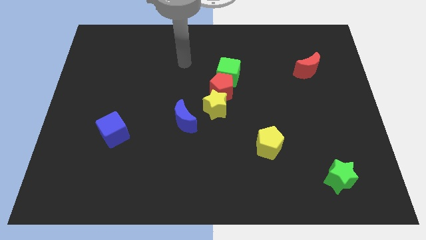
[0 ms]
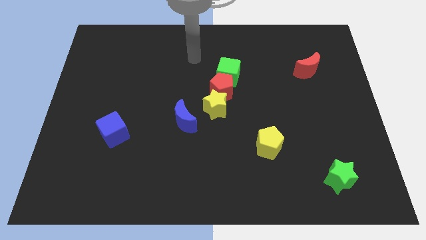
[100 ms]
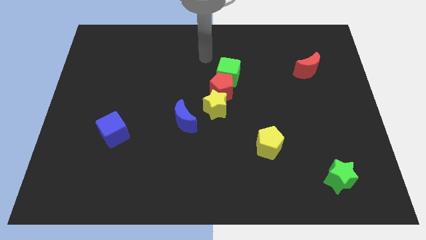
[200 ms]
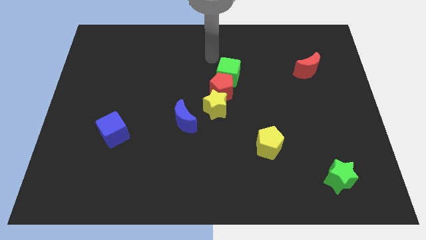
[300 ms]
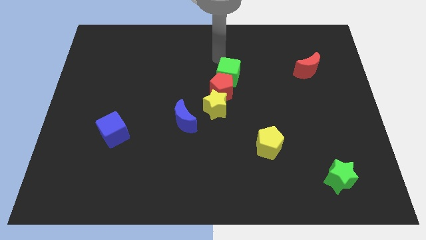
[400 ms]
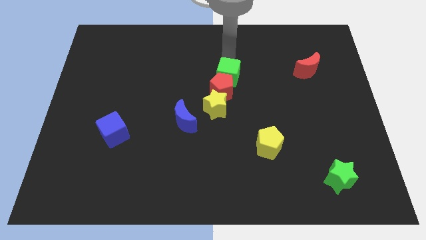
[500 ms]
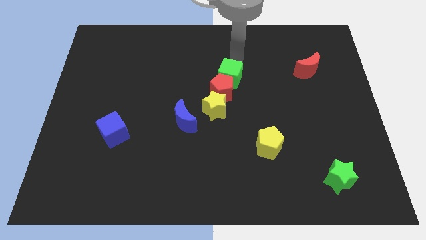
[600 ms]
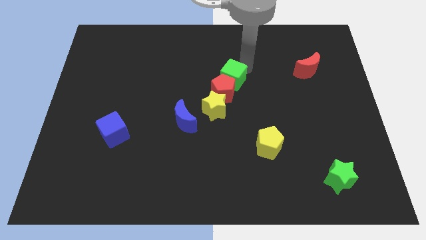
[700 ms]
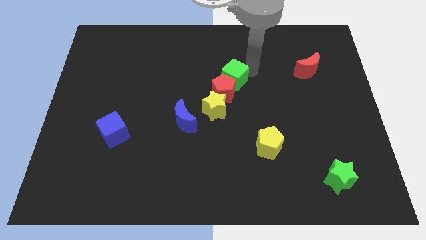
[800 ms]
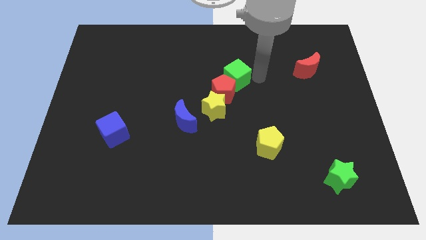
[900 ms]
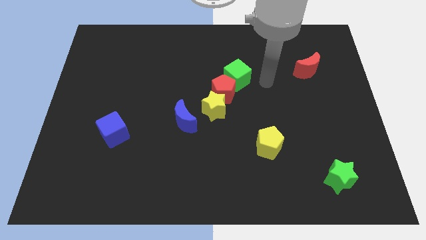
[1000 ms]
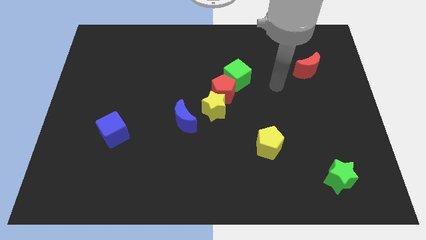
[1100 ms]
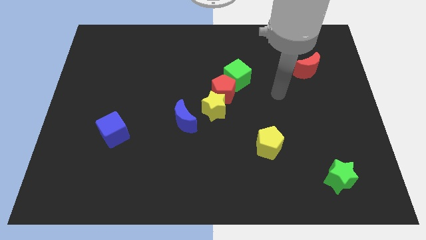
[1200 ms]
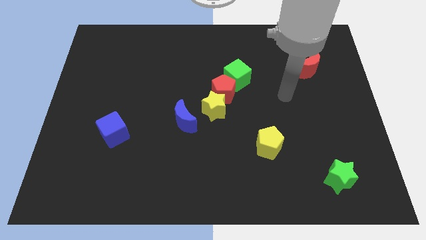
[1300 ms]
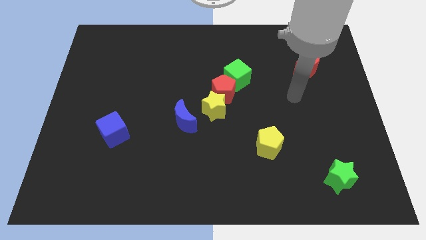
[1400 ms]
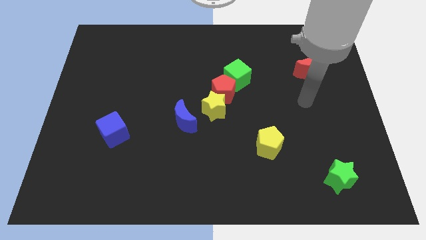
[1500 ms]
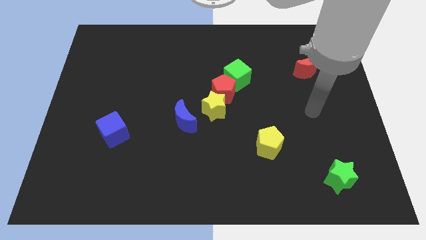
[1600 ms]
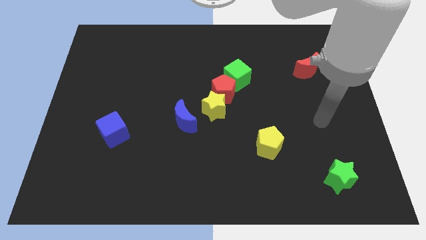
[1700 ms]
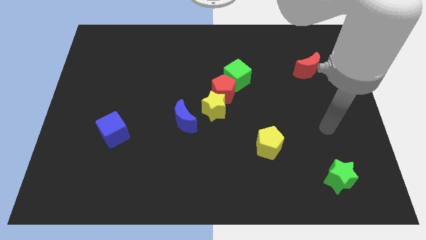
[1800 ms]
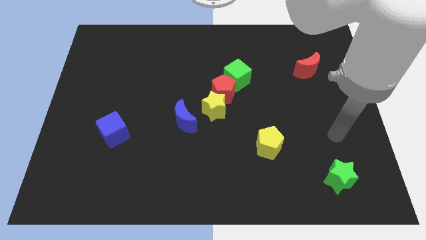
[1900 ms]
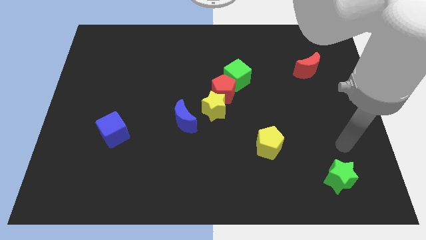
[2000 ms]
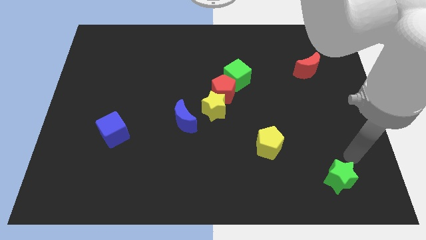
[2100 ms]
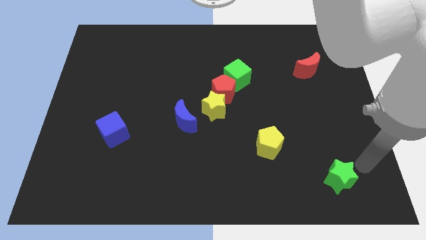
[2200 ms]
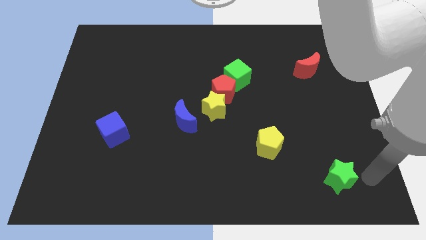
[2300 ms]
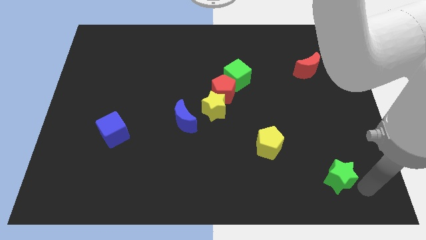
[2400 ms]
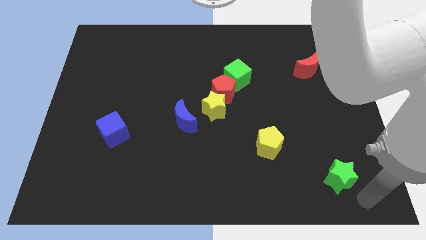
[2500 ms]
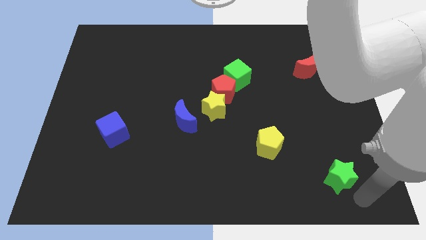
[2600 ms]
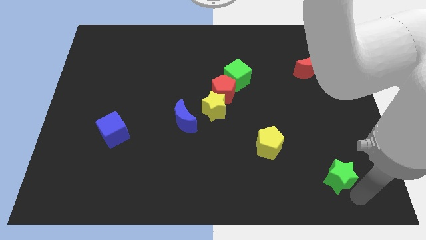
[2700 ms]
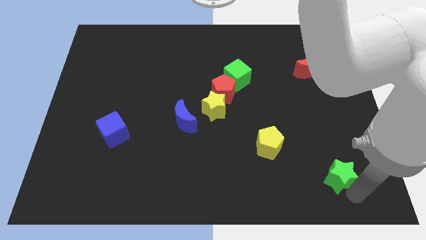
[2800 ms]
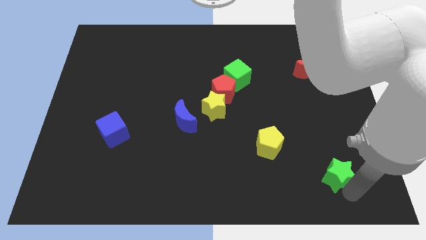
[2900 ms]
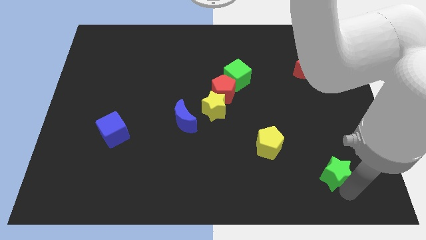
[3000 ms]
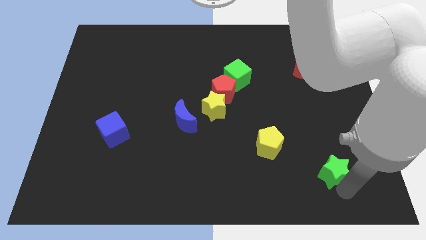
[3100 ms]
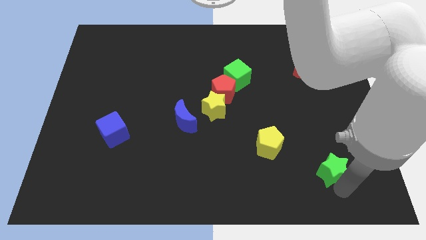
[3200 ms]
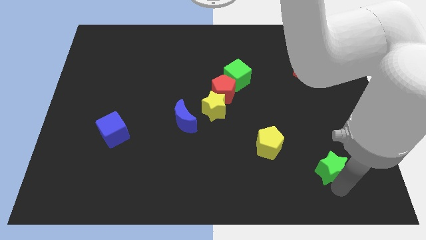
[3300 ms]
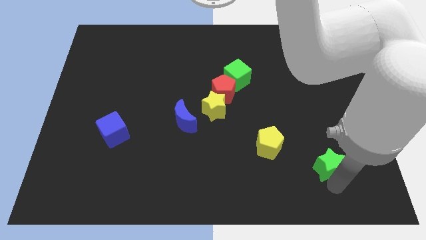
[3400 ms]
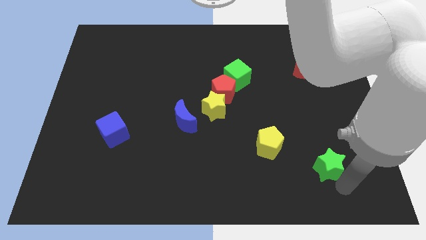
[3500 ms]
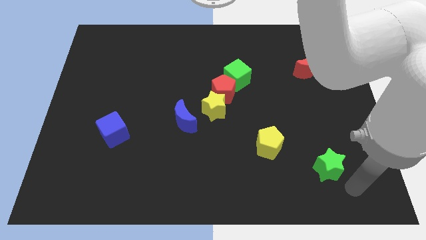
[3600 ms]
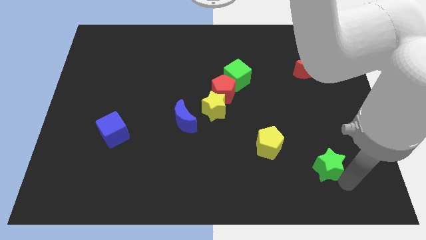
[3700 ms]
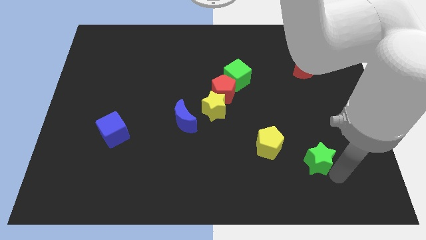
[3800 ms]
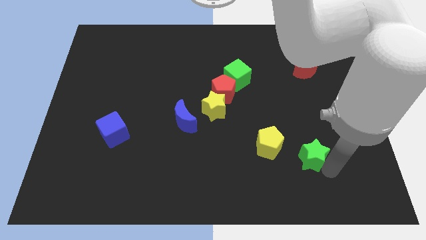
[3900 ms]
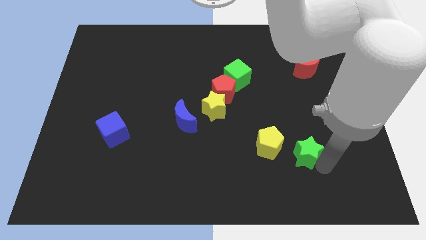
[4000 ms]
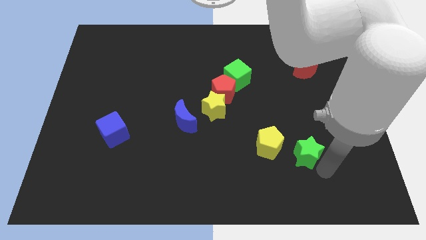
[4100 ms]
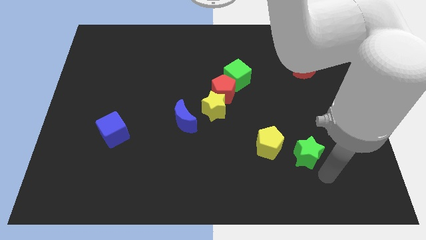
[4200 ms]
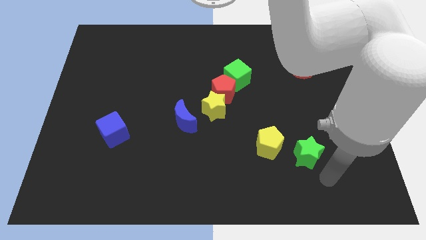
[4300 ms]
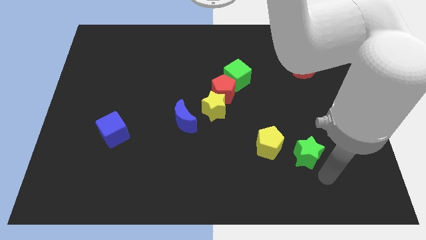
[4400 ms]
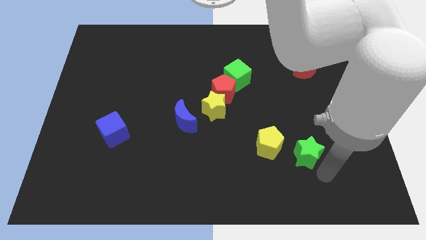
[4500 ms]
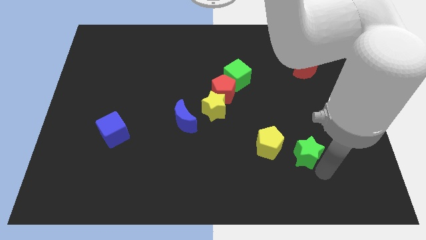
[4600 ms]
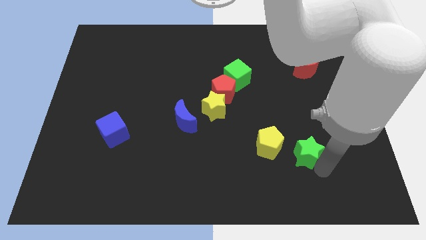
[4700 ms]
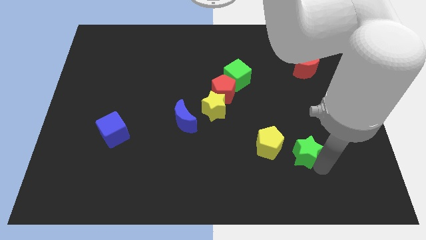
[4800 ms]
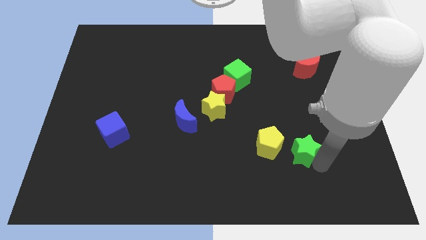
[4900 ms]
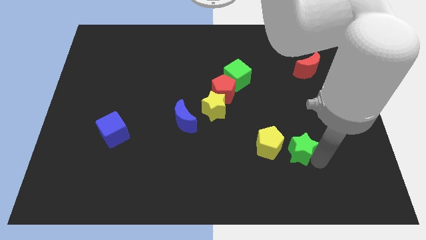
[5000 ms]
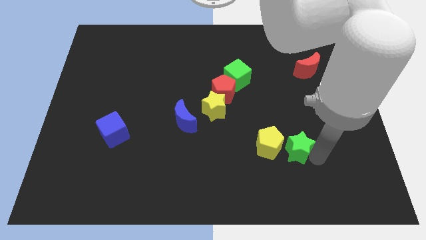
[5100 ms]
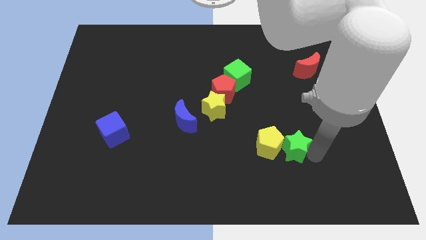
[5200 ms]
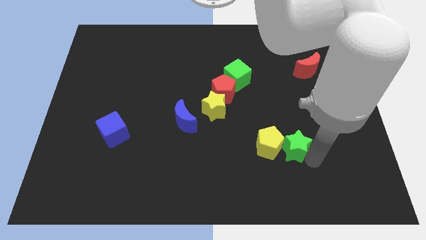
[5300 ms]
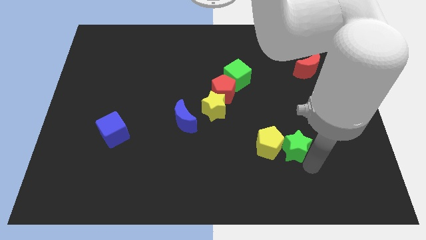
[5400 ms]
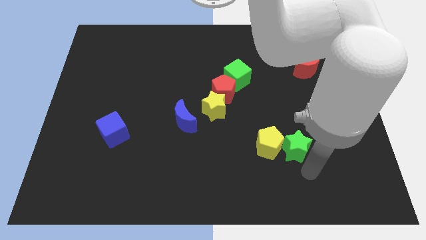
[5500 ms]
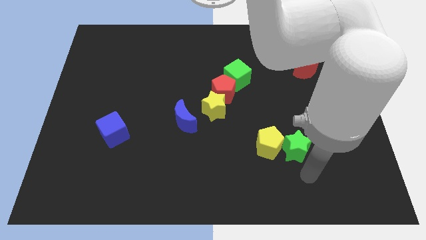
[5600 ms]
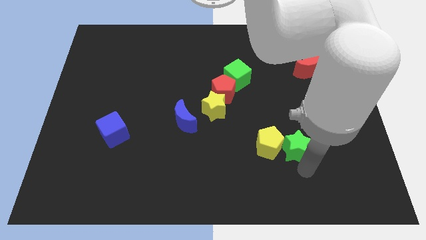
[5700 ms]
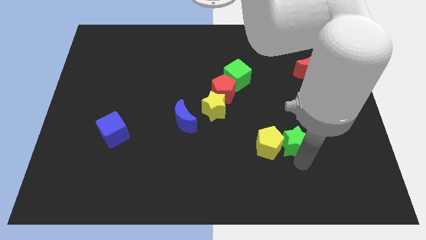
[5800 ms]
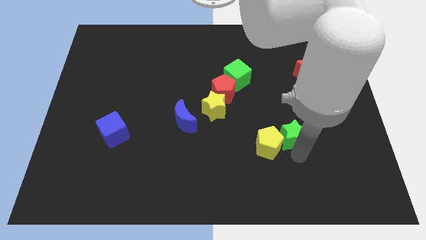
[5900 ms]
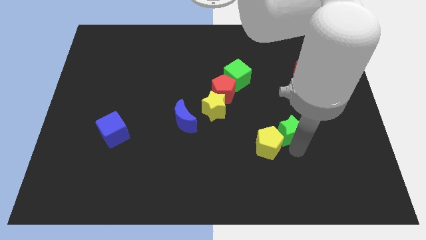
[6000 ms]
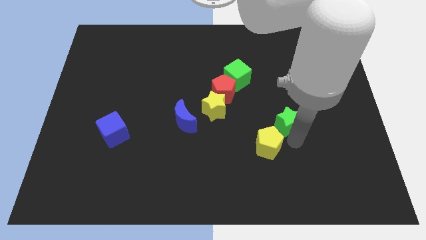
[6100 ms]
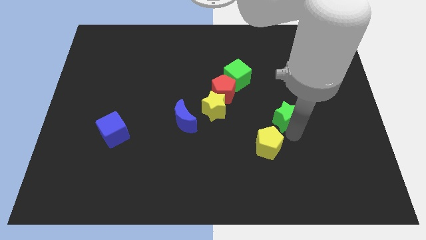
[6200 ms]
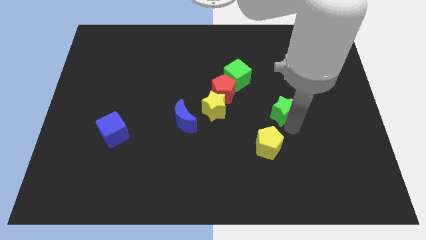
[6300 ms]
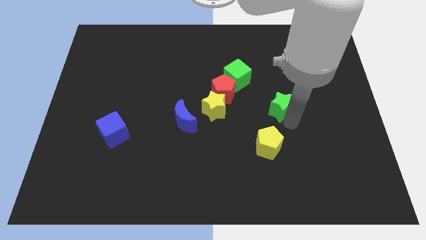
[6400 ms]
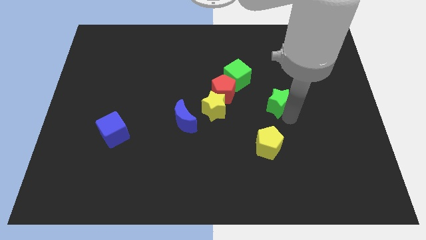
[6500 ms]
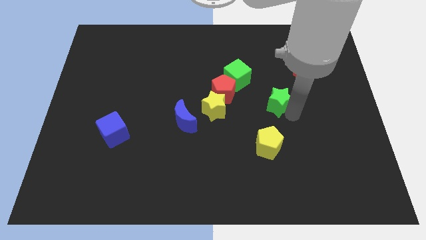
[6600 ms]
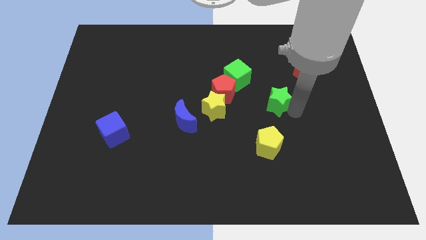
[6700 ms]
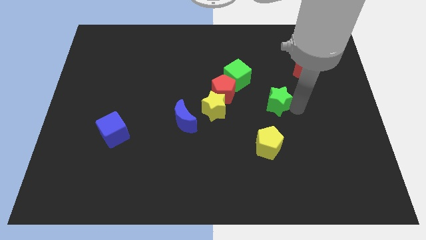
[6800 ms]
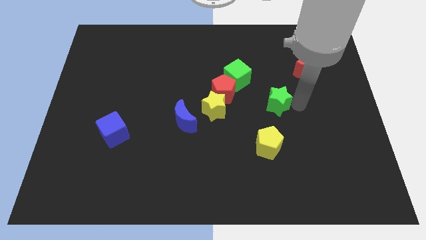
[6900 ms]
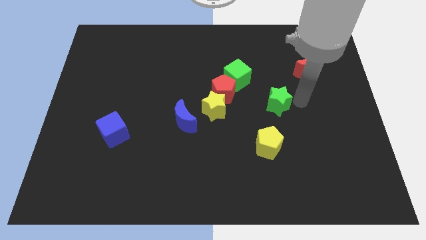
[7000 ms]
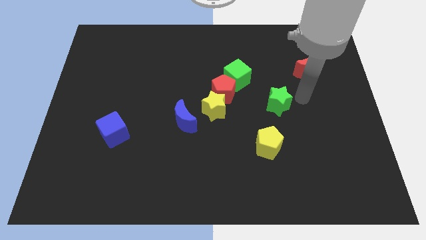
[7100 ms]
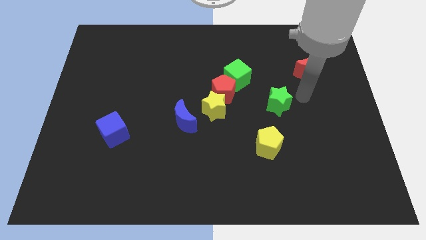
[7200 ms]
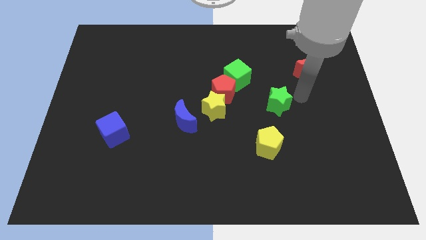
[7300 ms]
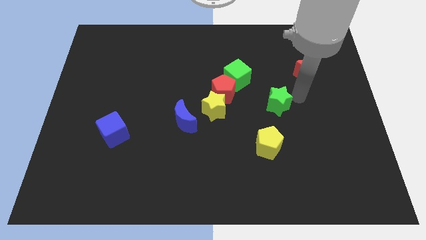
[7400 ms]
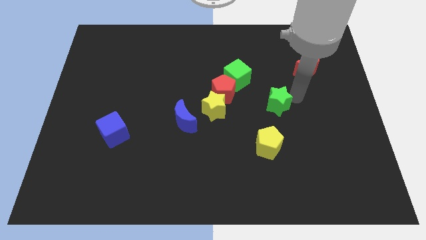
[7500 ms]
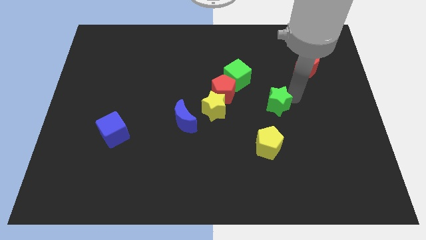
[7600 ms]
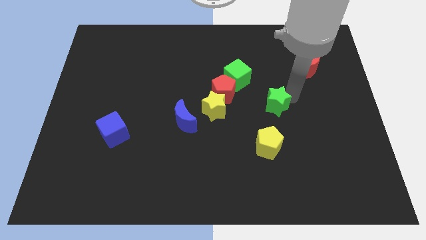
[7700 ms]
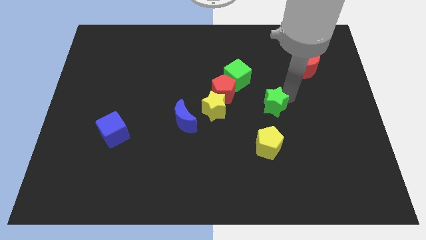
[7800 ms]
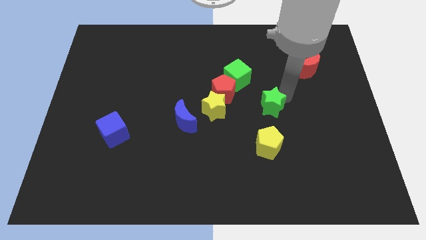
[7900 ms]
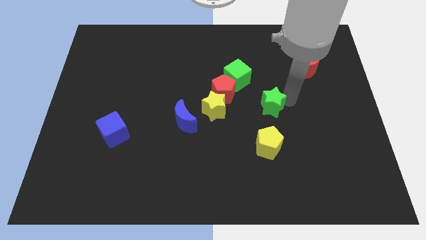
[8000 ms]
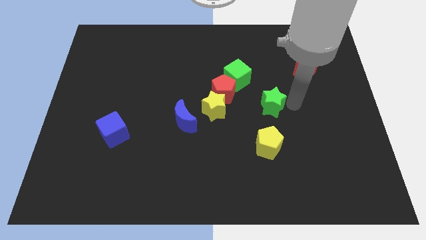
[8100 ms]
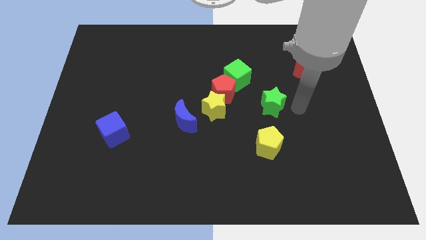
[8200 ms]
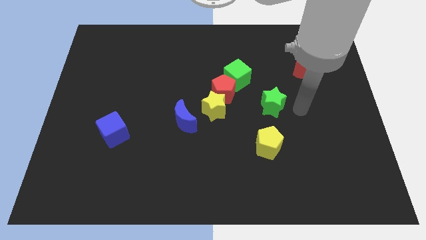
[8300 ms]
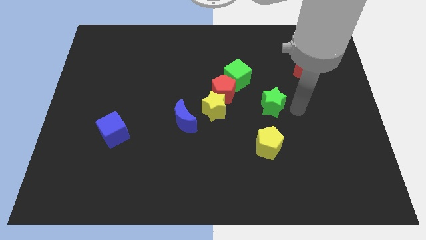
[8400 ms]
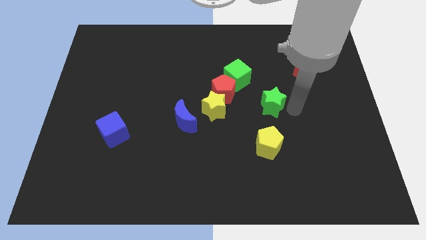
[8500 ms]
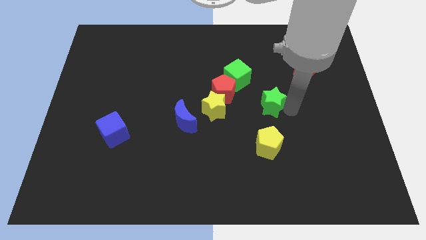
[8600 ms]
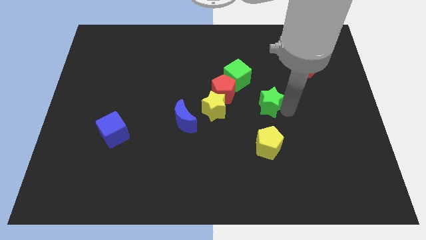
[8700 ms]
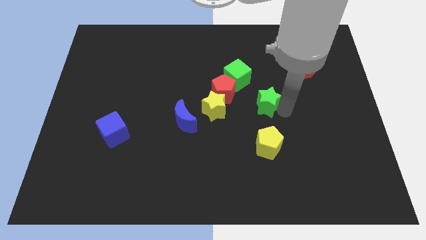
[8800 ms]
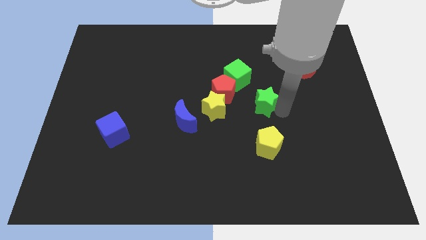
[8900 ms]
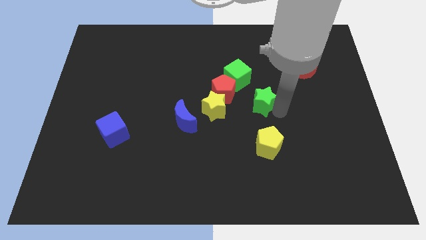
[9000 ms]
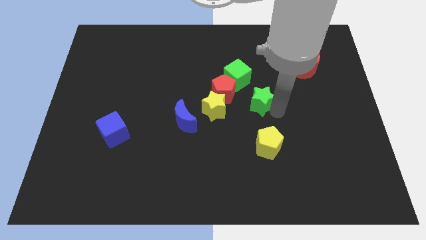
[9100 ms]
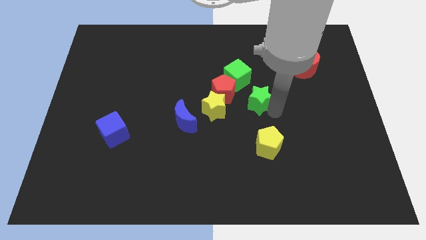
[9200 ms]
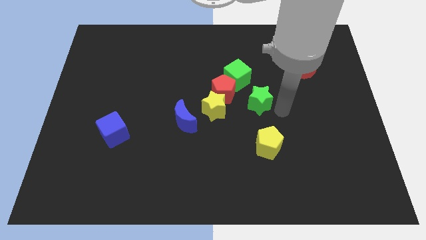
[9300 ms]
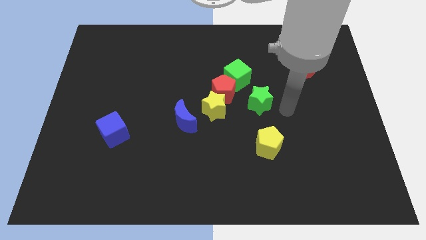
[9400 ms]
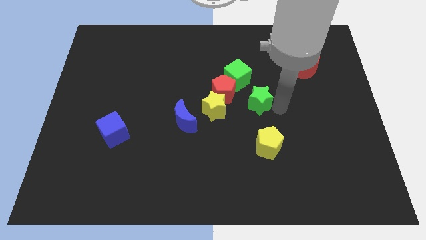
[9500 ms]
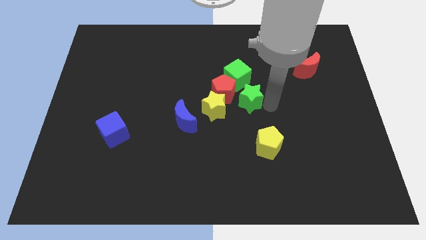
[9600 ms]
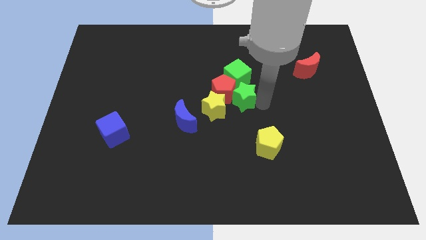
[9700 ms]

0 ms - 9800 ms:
push the green star close to the red pentagon
